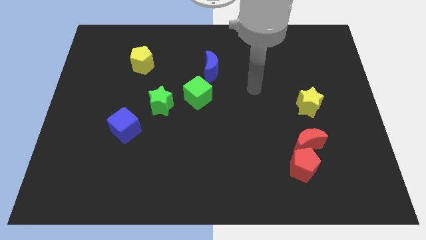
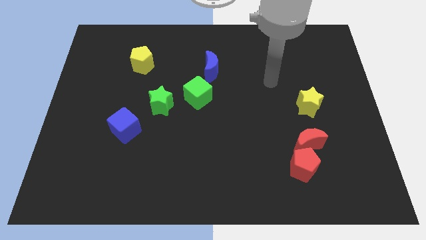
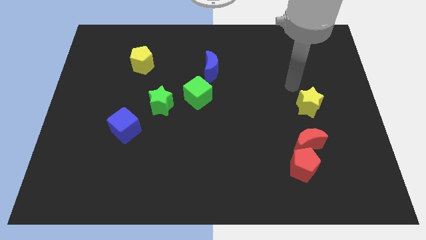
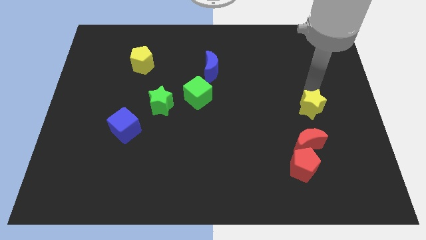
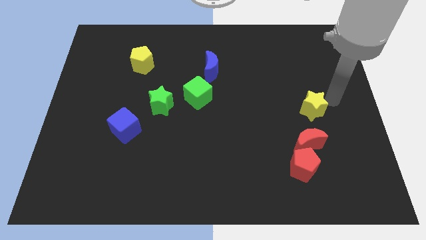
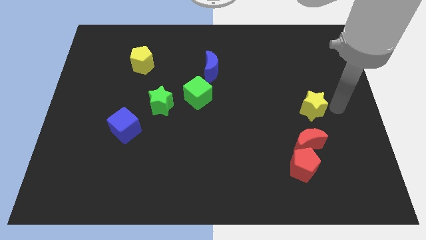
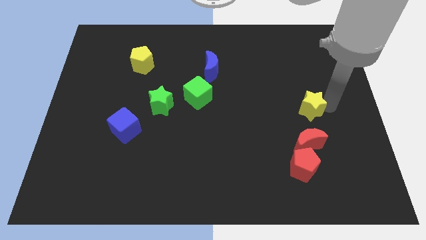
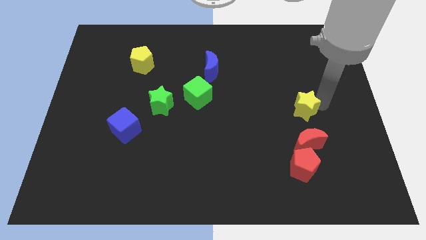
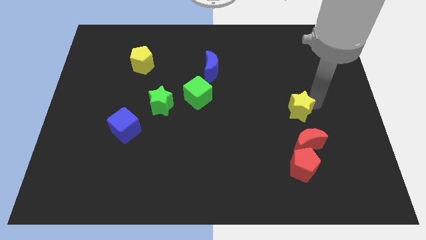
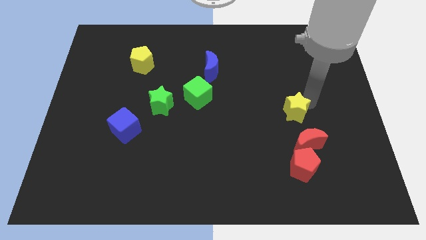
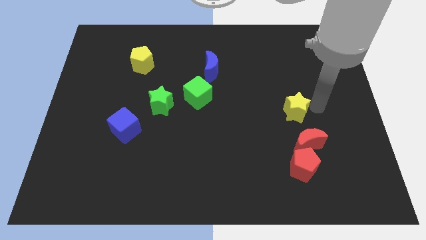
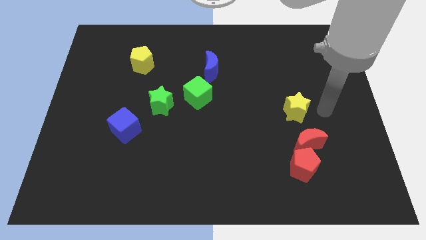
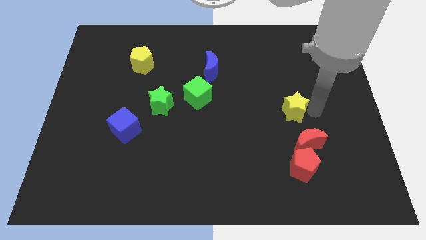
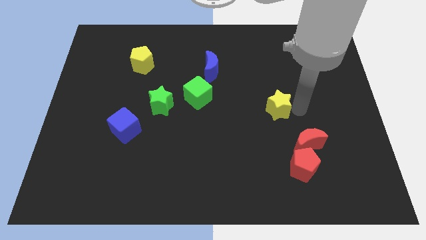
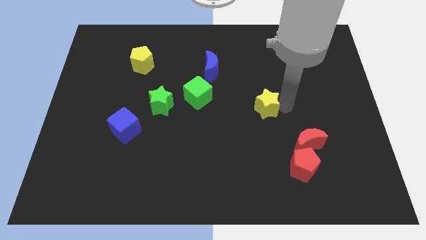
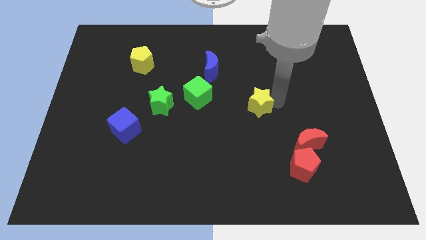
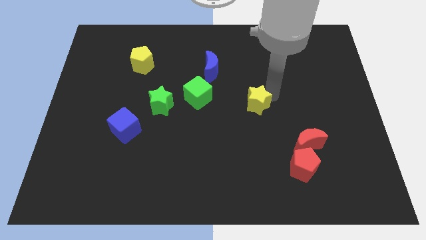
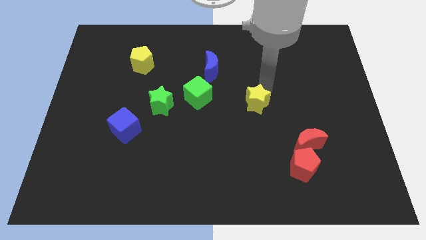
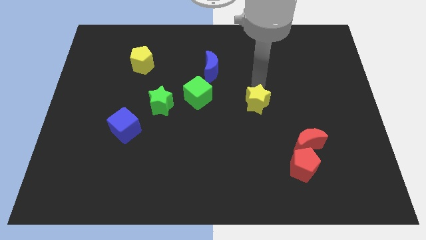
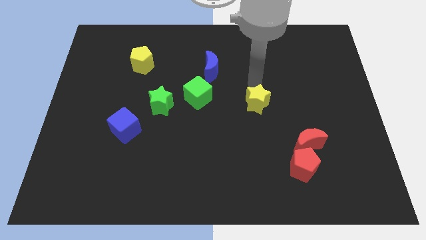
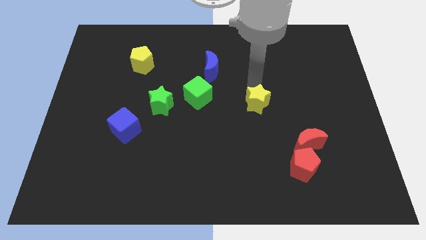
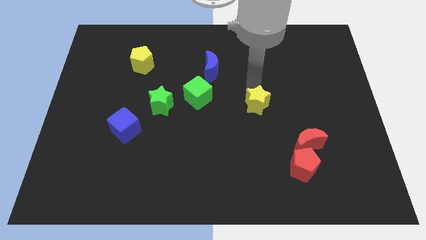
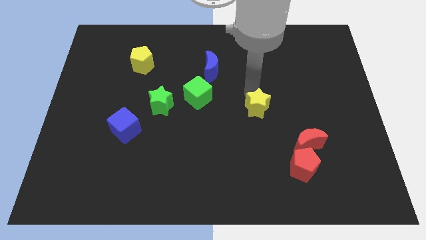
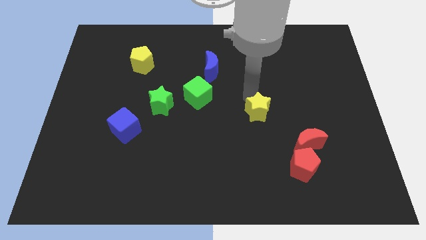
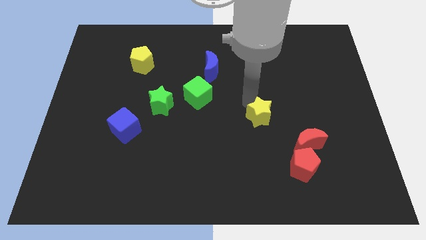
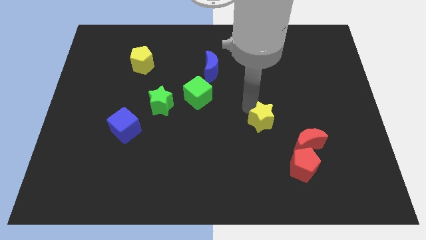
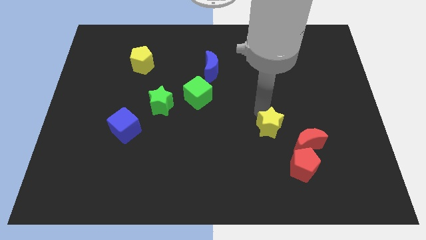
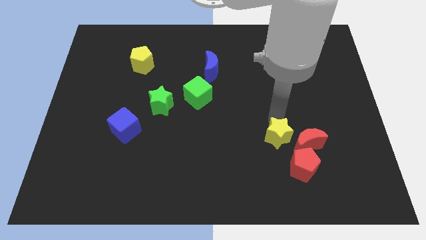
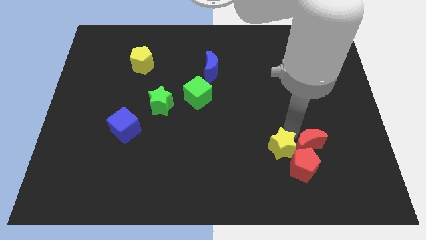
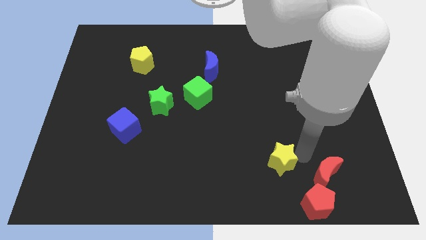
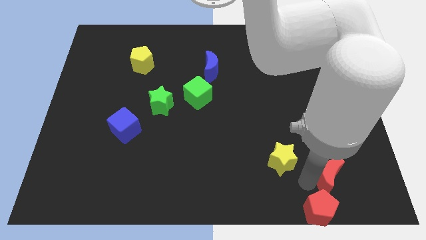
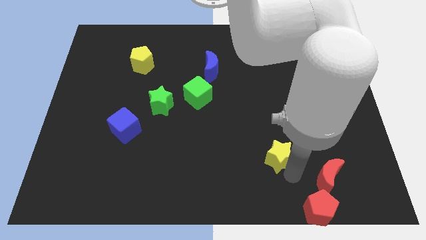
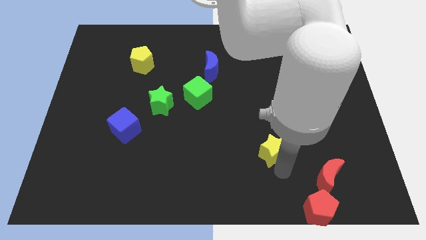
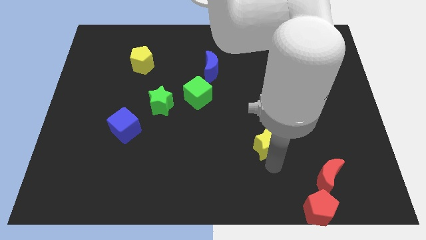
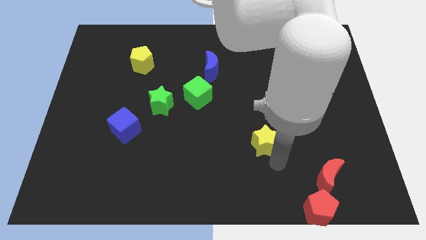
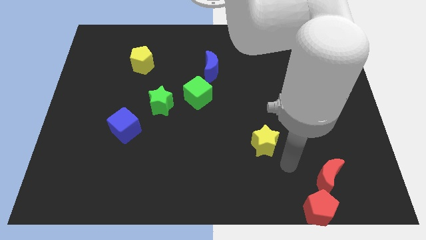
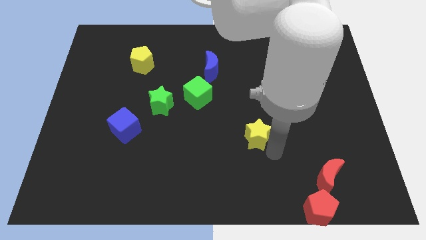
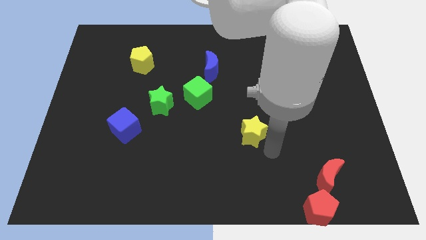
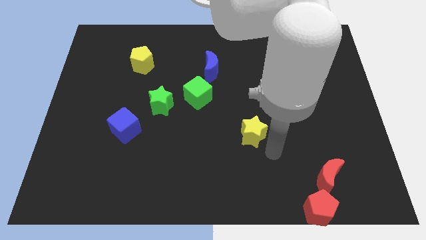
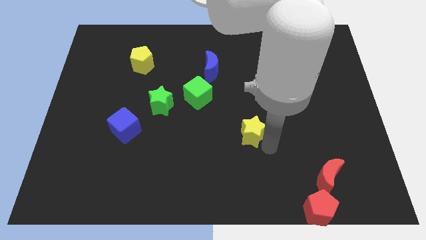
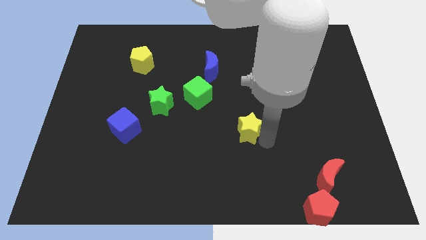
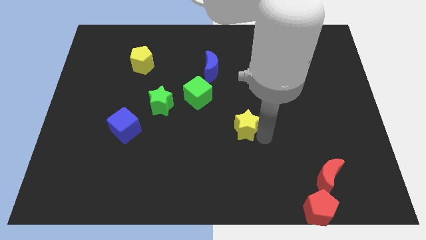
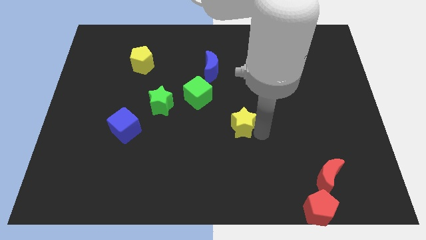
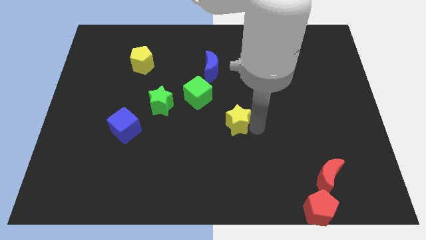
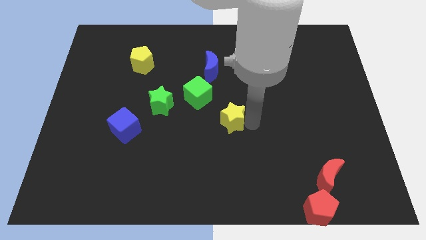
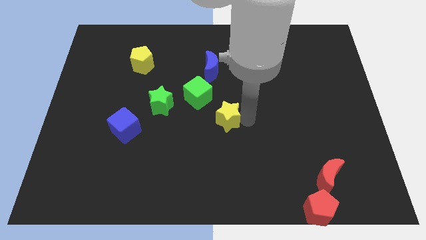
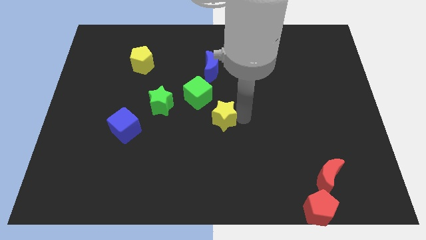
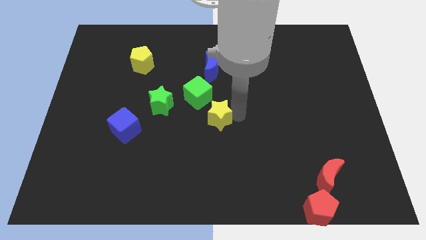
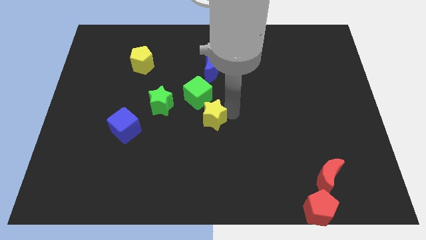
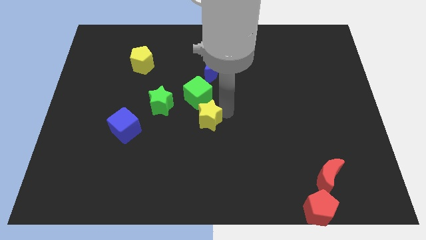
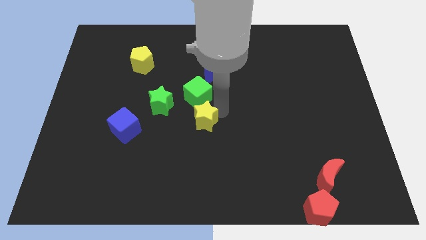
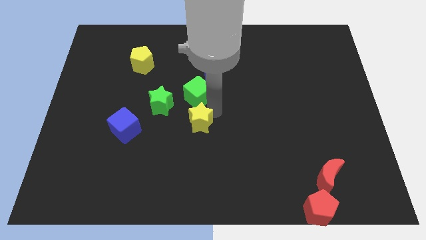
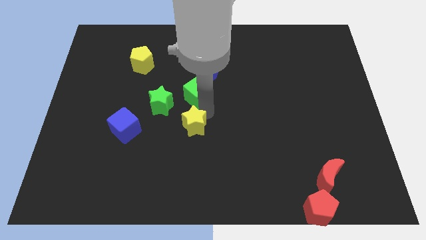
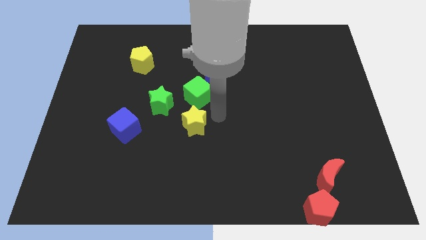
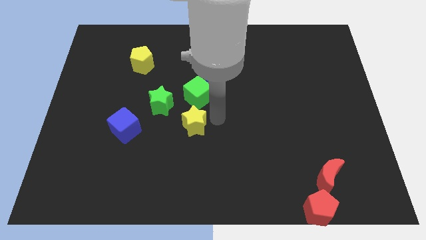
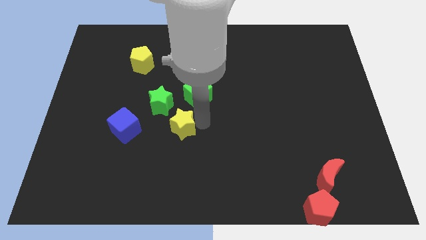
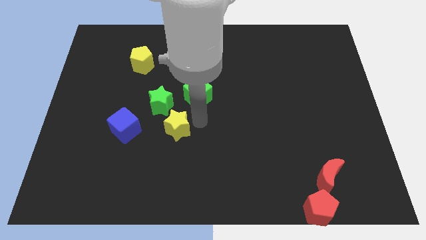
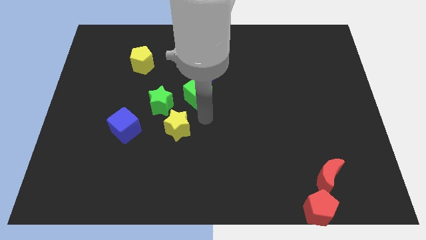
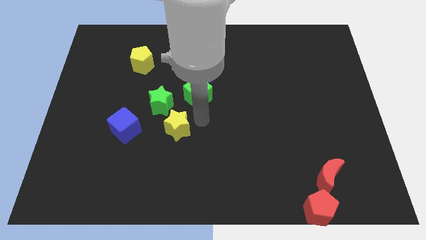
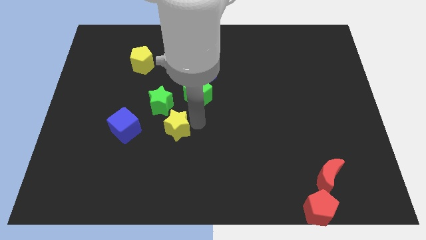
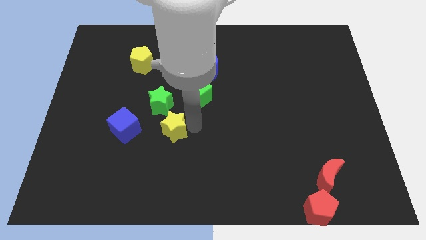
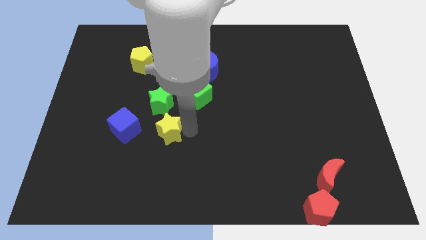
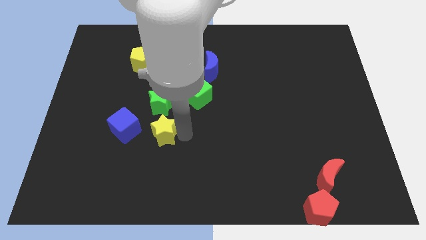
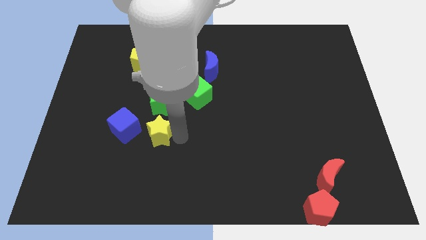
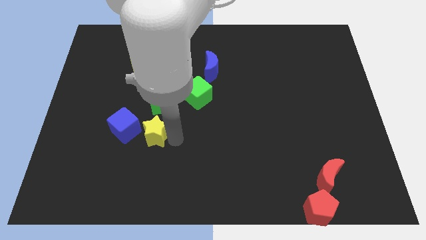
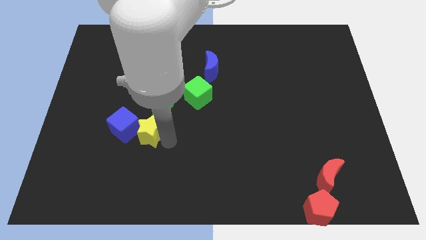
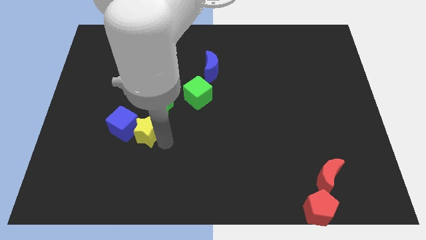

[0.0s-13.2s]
put the yellow star close to the blue cube

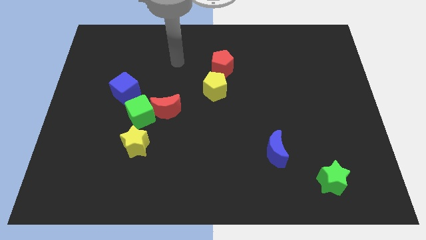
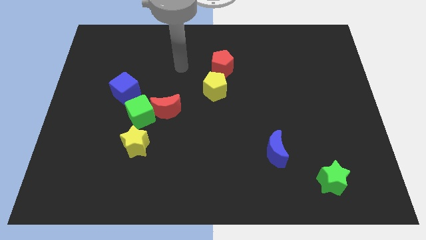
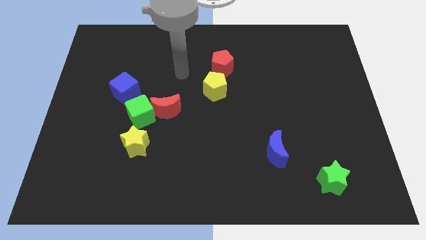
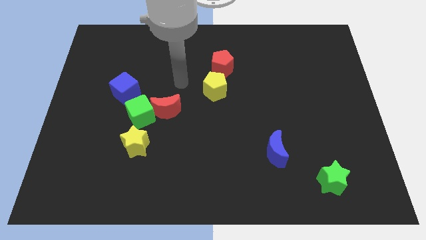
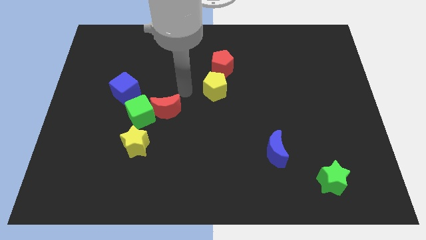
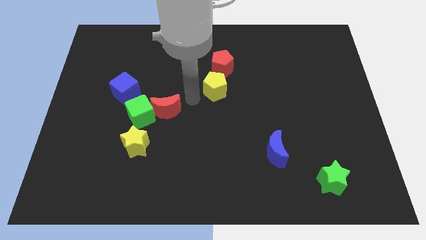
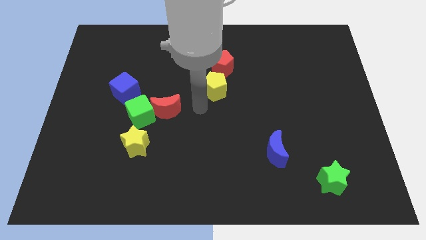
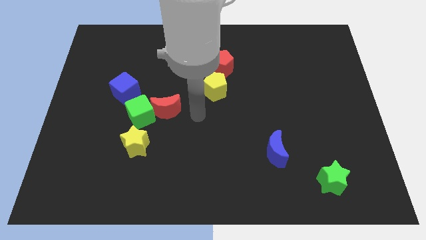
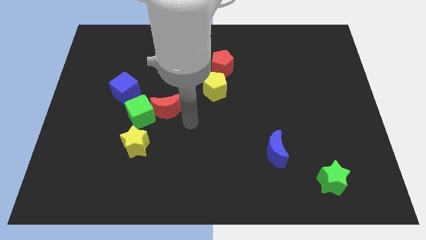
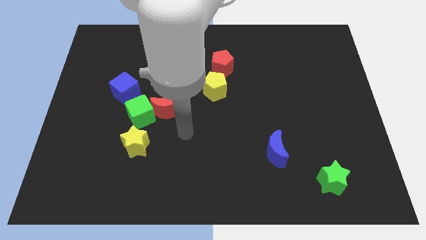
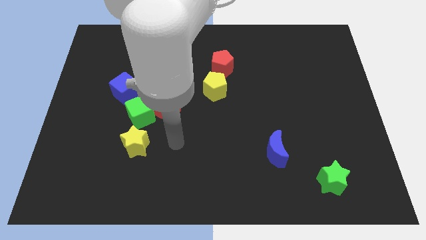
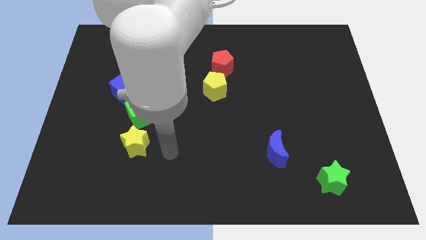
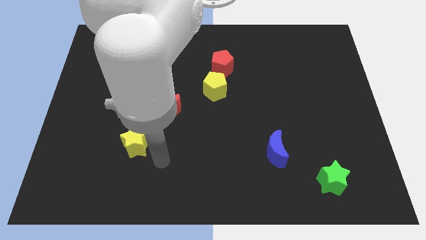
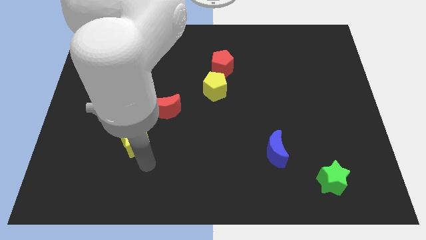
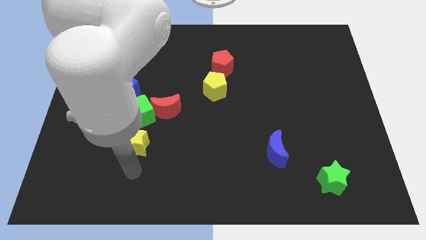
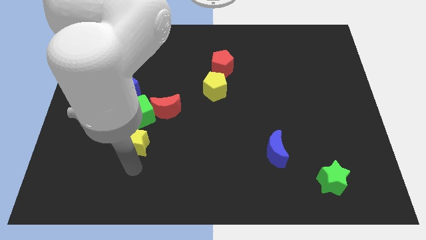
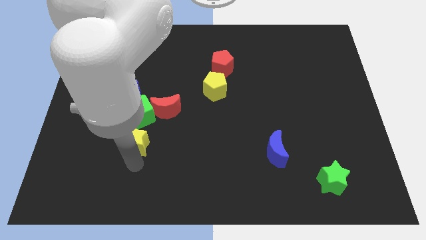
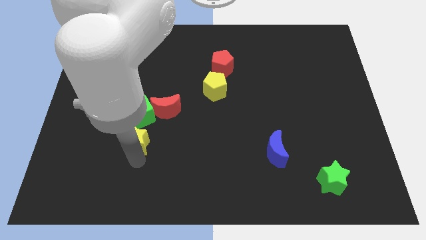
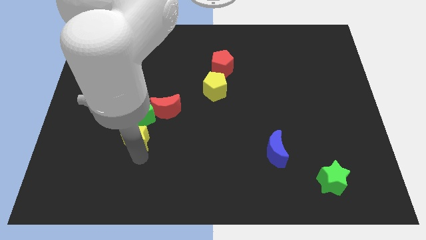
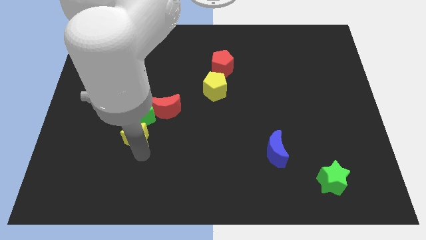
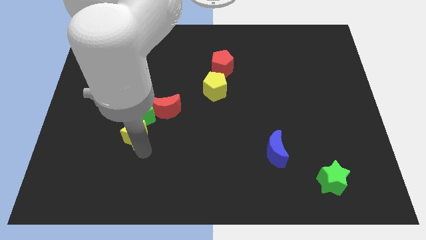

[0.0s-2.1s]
move the yellow star next to the green cube
